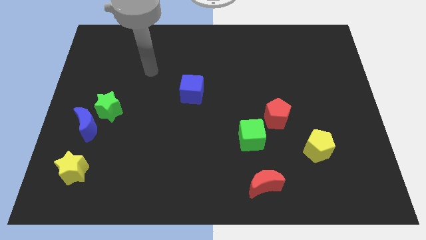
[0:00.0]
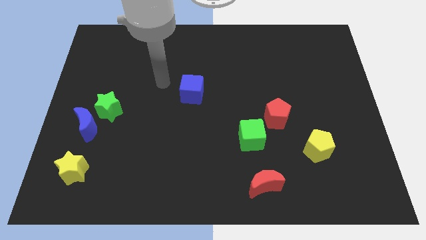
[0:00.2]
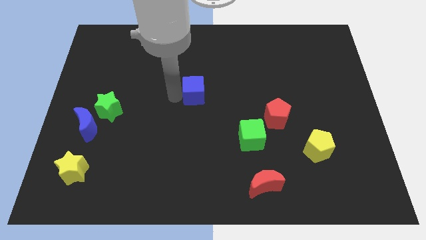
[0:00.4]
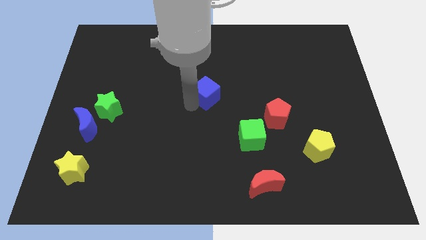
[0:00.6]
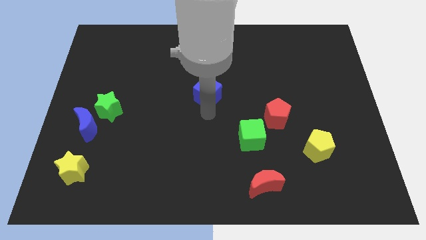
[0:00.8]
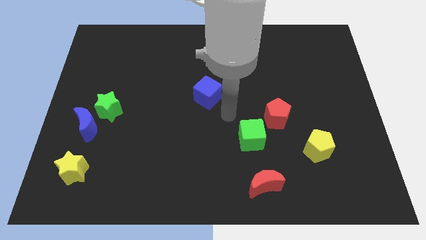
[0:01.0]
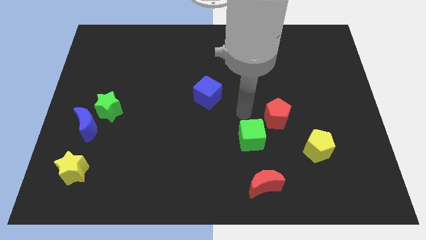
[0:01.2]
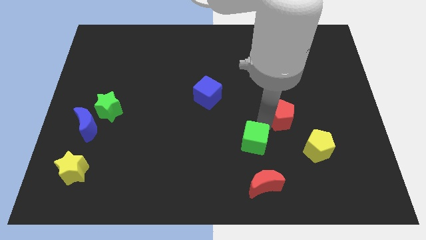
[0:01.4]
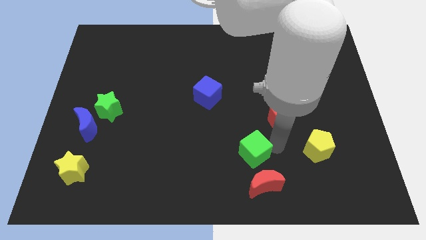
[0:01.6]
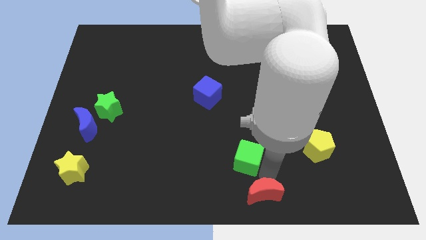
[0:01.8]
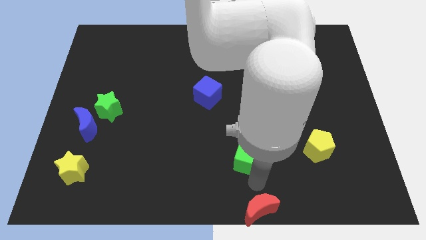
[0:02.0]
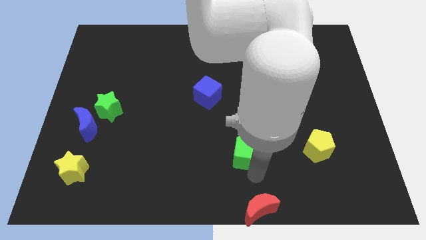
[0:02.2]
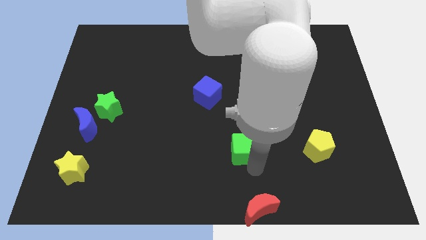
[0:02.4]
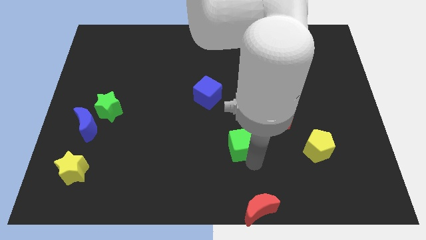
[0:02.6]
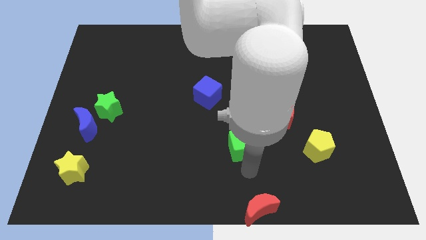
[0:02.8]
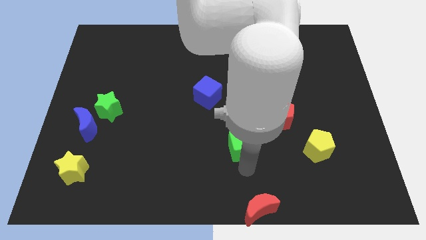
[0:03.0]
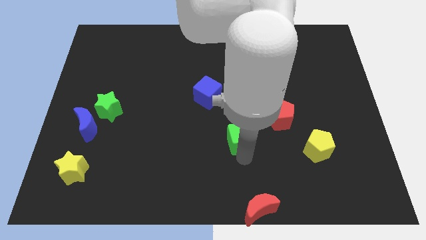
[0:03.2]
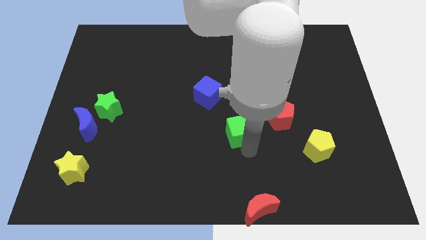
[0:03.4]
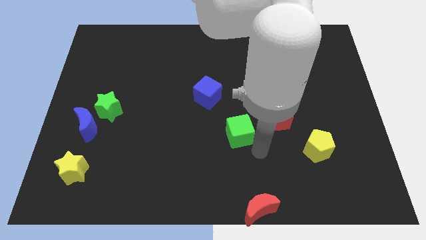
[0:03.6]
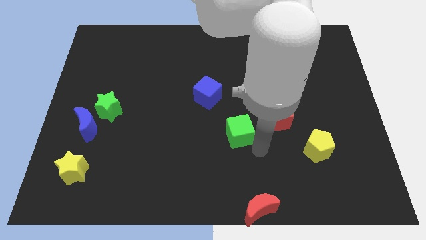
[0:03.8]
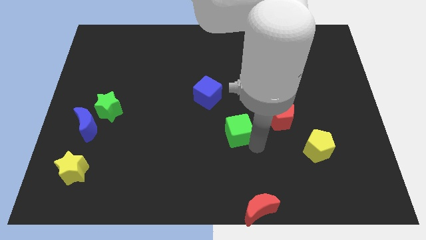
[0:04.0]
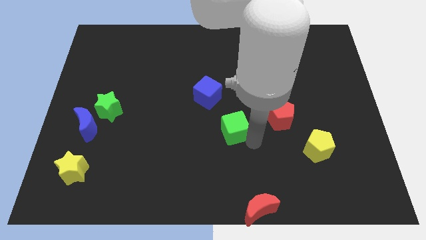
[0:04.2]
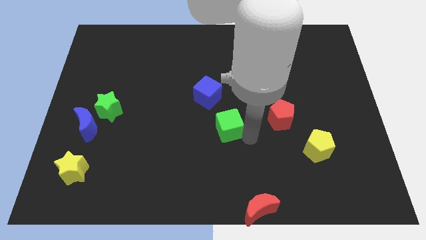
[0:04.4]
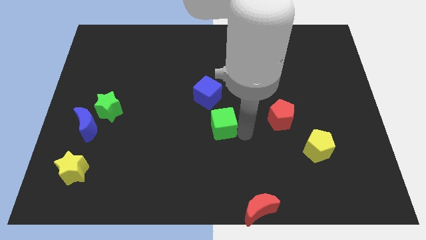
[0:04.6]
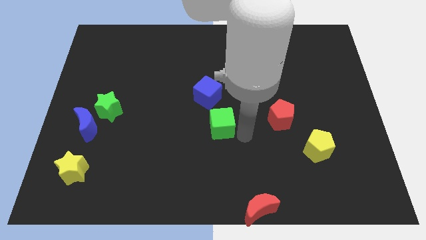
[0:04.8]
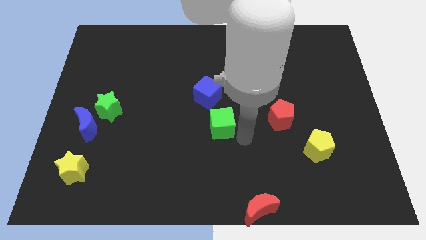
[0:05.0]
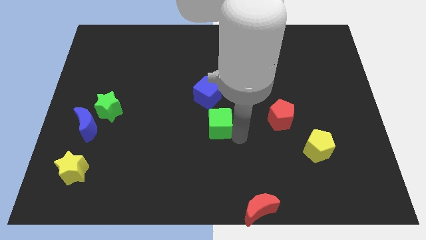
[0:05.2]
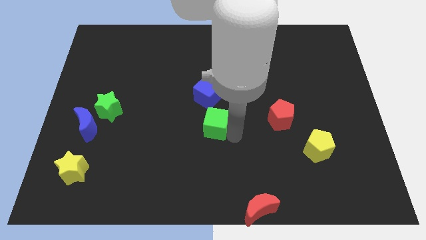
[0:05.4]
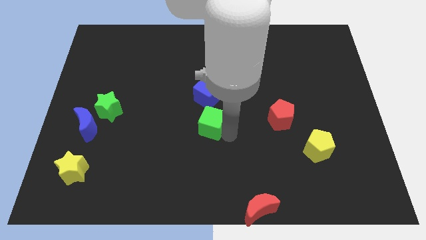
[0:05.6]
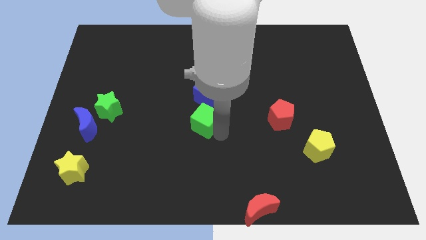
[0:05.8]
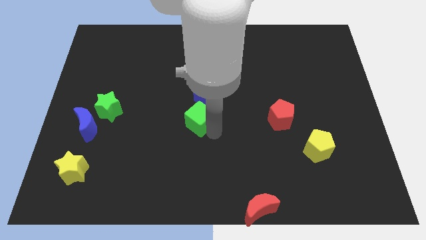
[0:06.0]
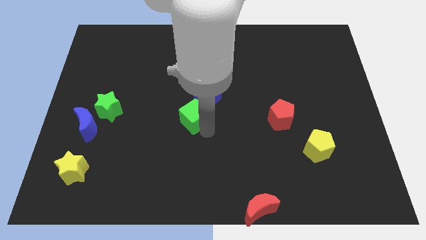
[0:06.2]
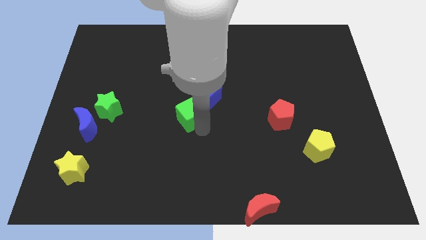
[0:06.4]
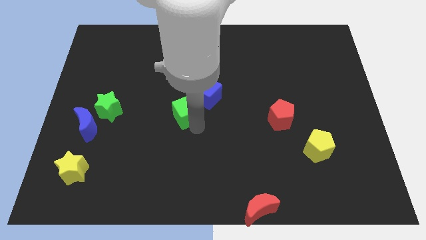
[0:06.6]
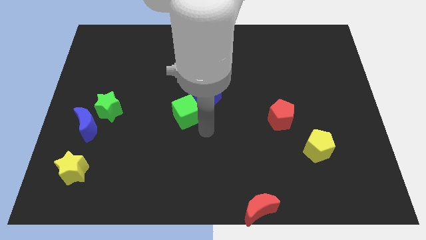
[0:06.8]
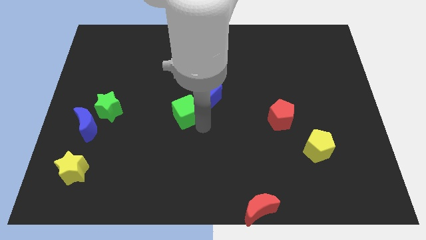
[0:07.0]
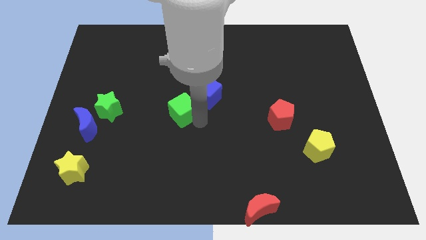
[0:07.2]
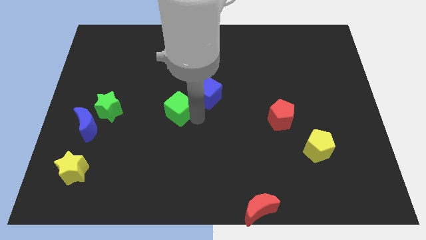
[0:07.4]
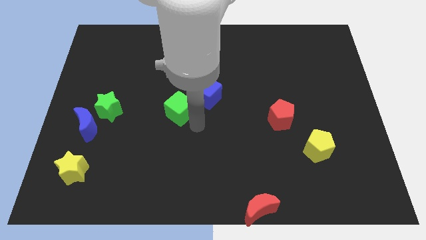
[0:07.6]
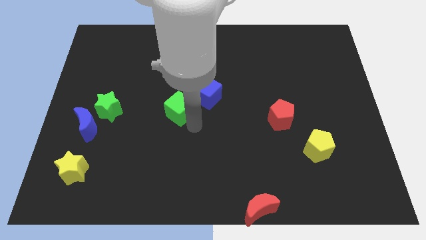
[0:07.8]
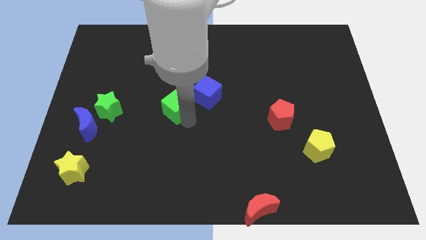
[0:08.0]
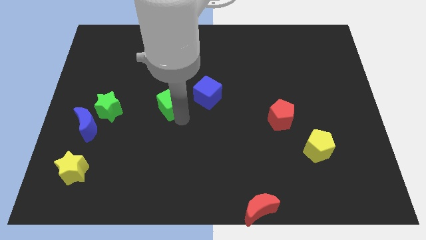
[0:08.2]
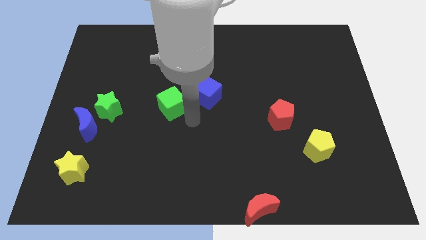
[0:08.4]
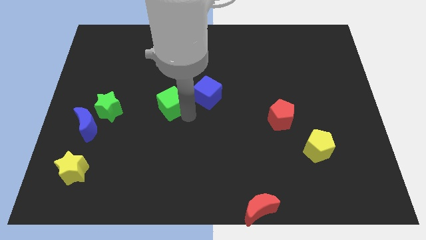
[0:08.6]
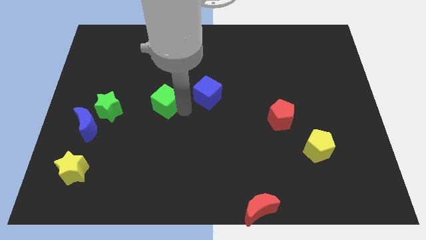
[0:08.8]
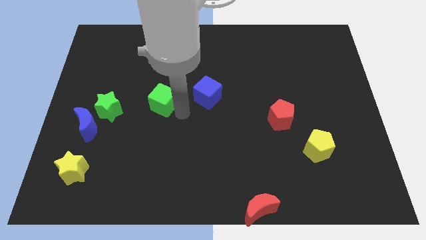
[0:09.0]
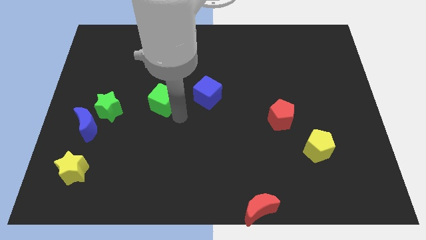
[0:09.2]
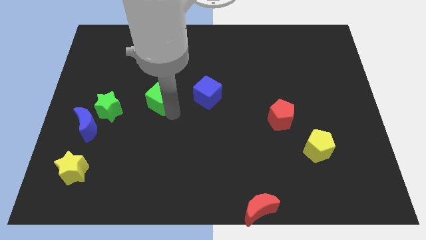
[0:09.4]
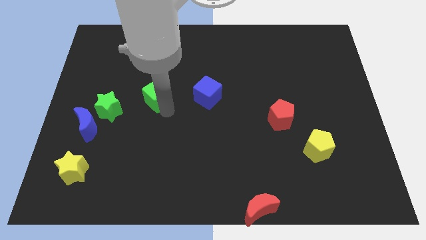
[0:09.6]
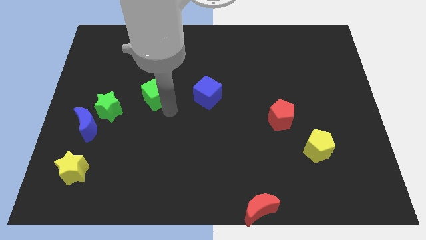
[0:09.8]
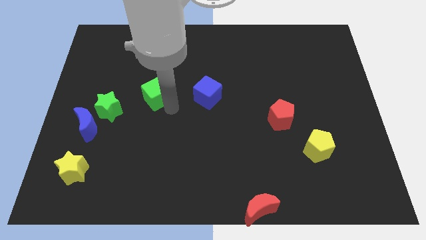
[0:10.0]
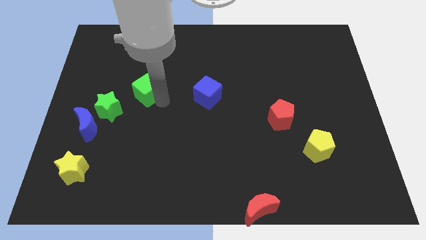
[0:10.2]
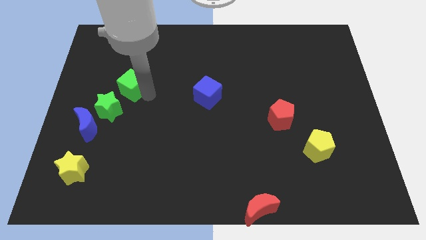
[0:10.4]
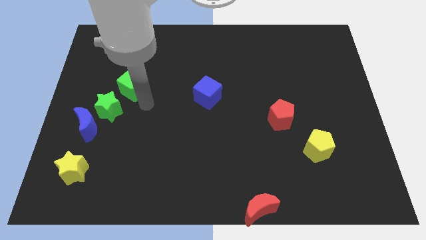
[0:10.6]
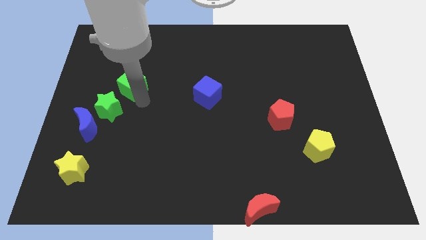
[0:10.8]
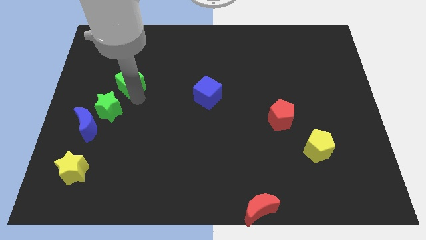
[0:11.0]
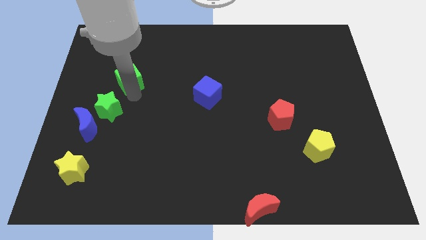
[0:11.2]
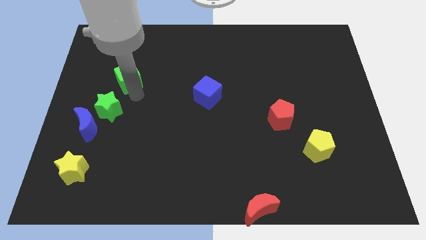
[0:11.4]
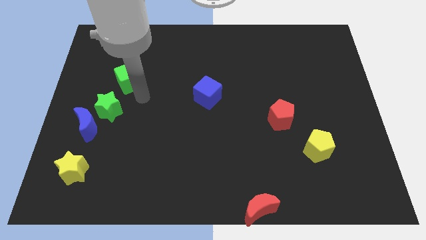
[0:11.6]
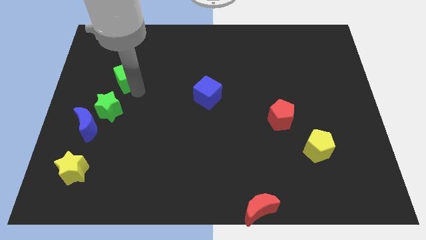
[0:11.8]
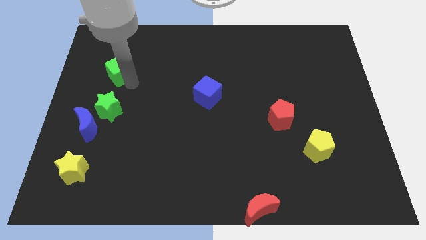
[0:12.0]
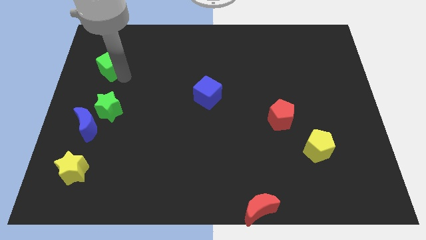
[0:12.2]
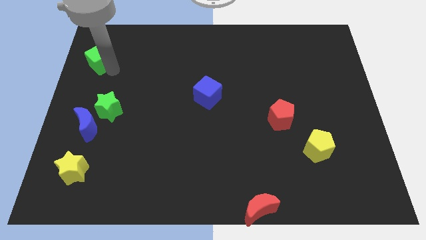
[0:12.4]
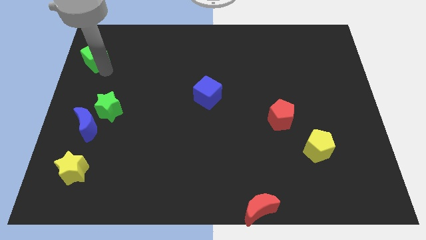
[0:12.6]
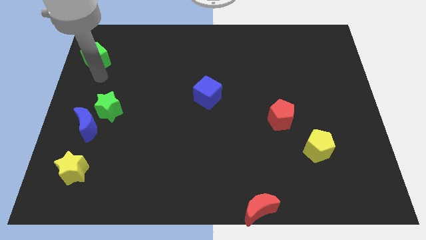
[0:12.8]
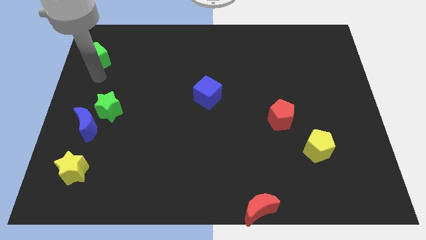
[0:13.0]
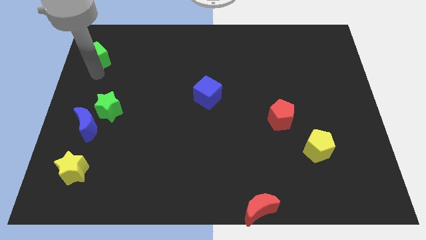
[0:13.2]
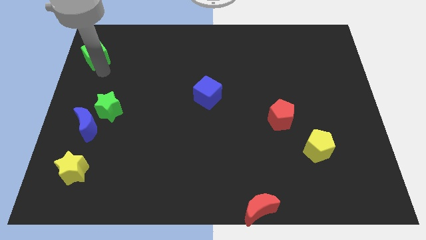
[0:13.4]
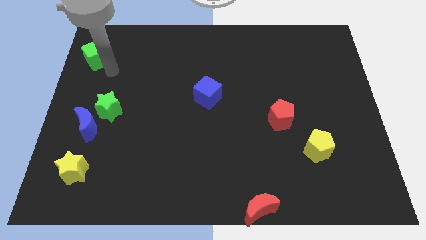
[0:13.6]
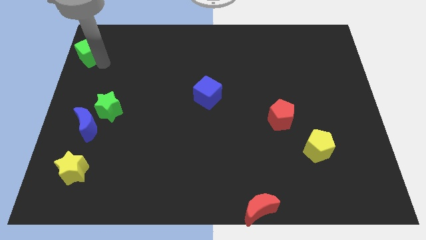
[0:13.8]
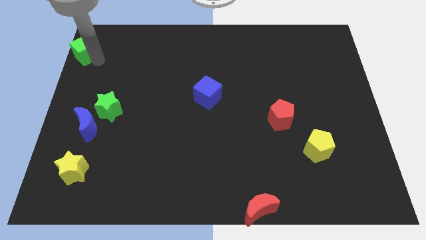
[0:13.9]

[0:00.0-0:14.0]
slide the green cube to the top left

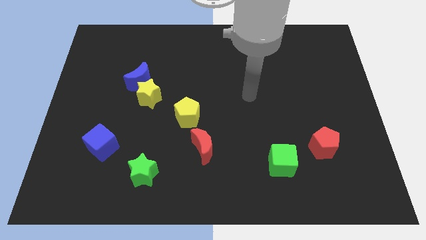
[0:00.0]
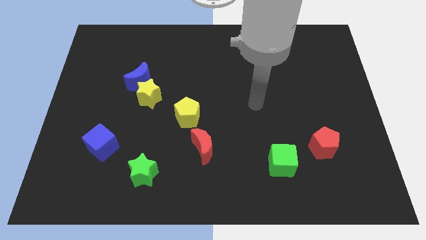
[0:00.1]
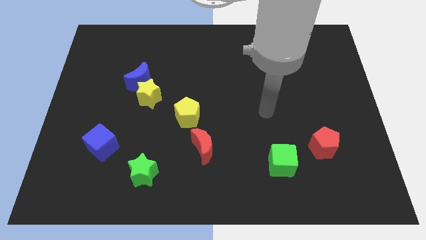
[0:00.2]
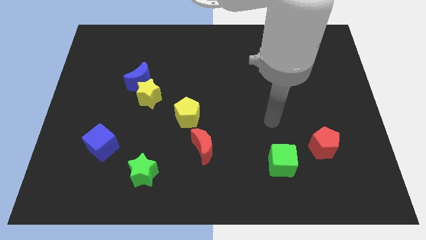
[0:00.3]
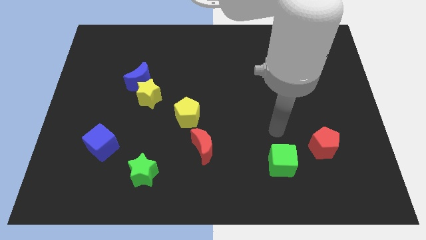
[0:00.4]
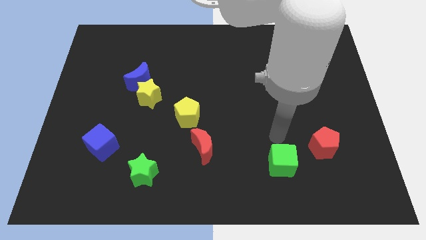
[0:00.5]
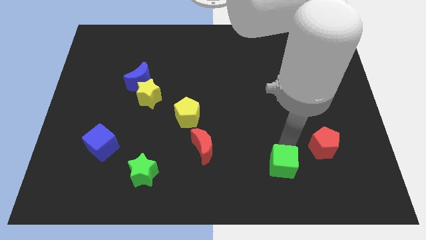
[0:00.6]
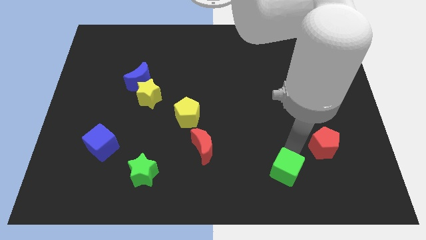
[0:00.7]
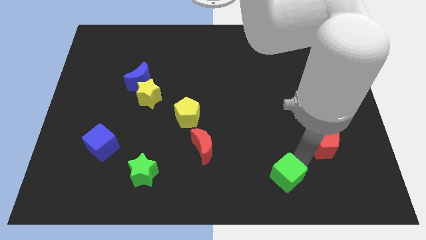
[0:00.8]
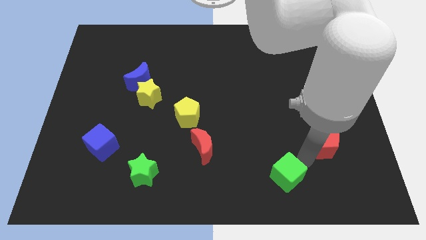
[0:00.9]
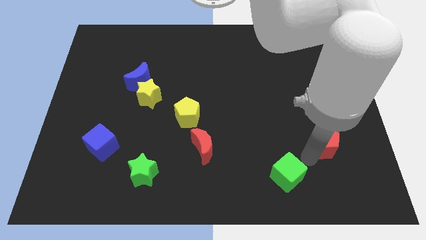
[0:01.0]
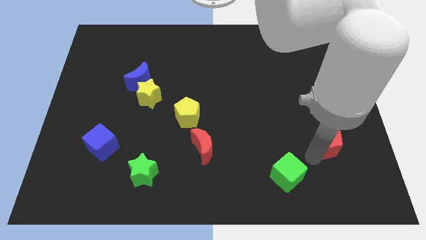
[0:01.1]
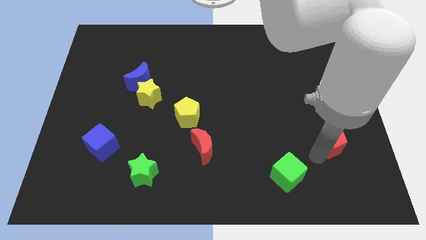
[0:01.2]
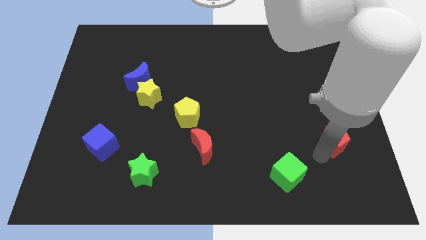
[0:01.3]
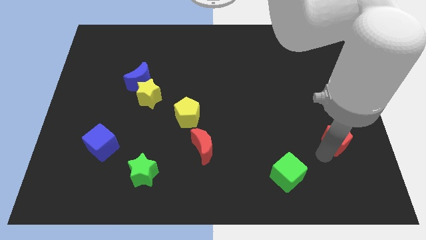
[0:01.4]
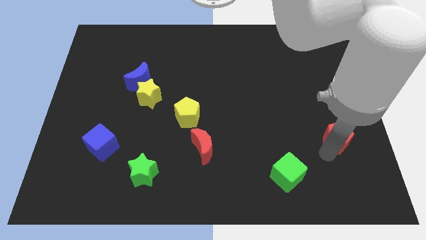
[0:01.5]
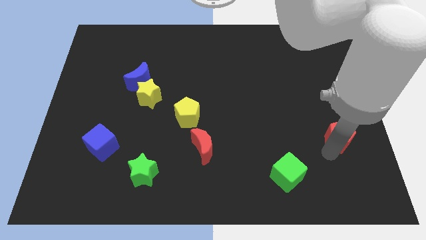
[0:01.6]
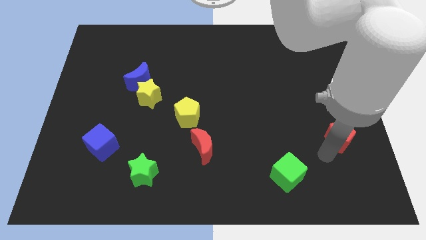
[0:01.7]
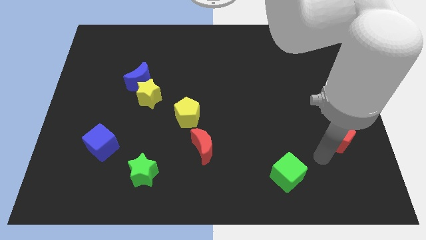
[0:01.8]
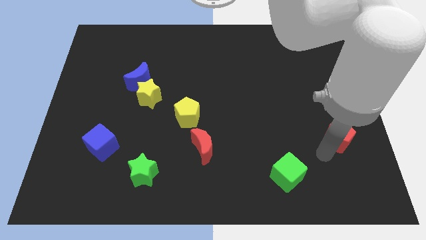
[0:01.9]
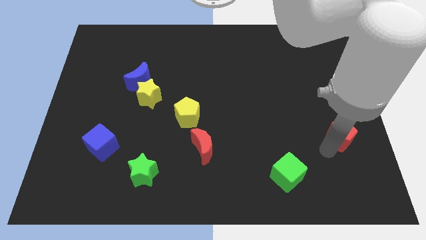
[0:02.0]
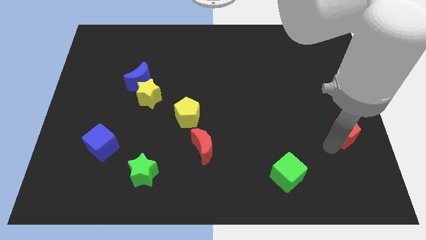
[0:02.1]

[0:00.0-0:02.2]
move the red pentagon to the right side of the board
